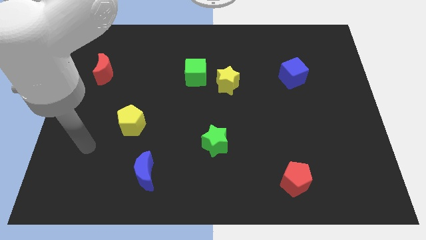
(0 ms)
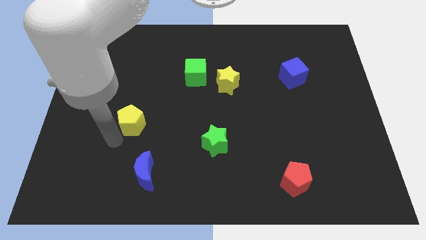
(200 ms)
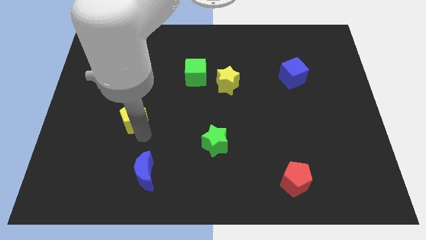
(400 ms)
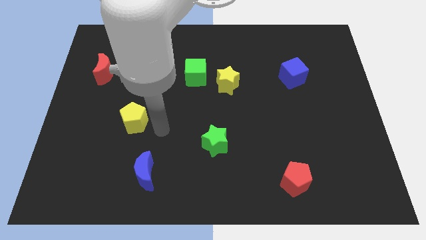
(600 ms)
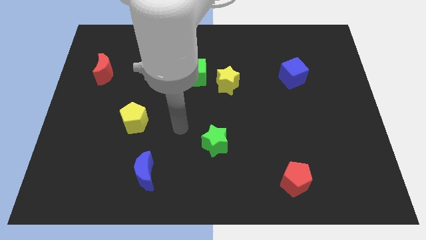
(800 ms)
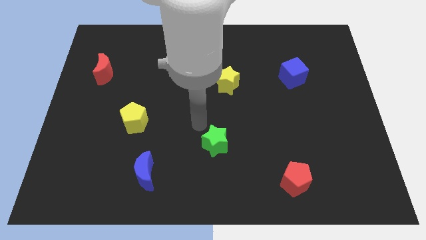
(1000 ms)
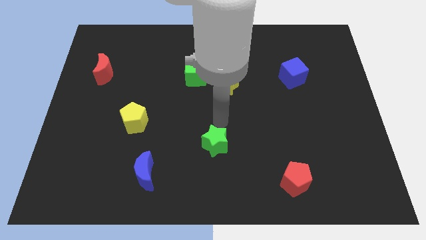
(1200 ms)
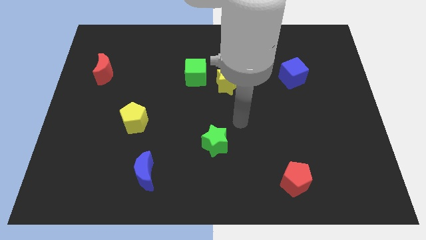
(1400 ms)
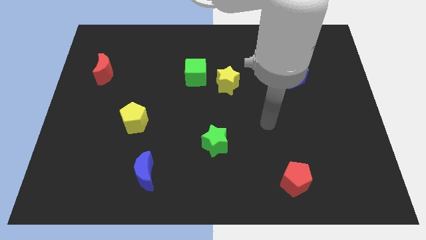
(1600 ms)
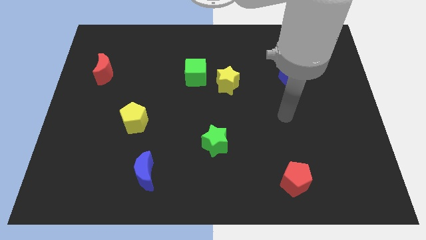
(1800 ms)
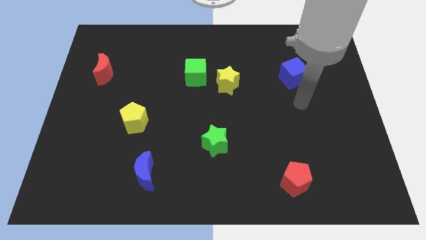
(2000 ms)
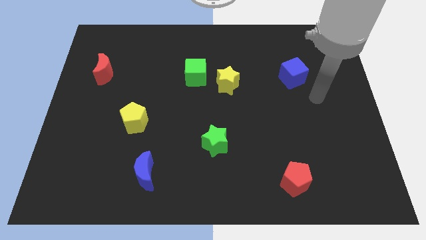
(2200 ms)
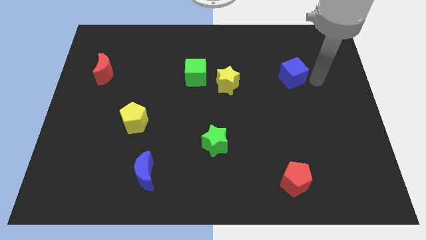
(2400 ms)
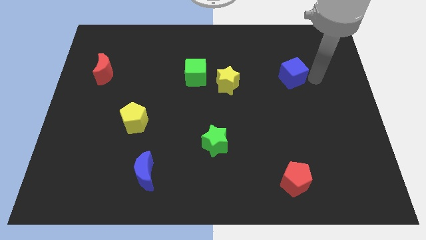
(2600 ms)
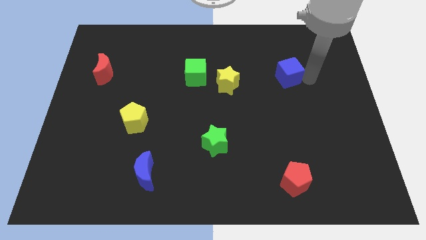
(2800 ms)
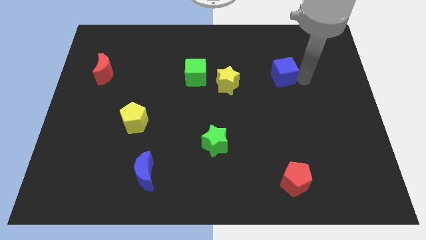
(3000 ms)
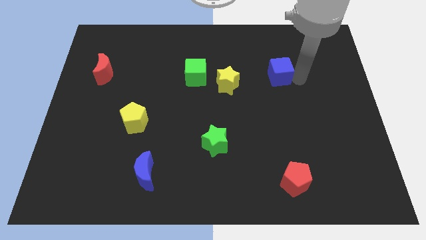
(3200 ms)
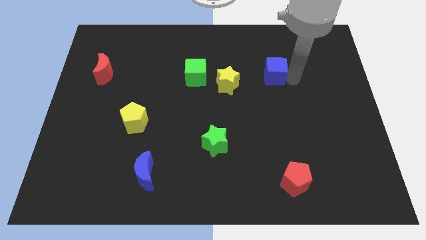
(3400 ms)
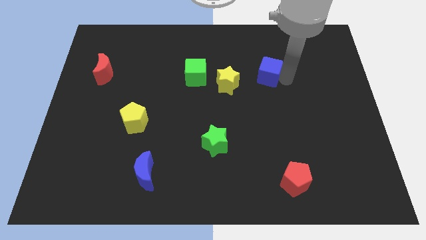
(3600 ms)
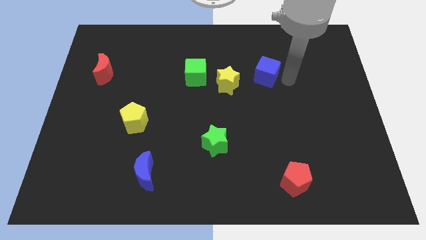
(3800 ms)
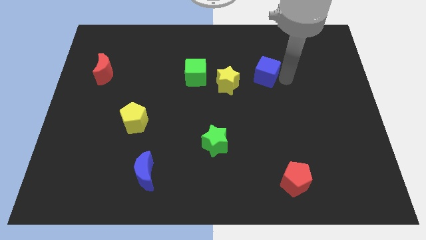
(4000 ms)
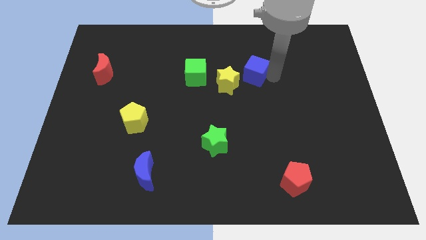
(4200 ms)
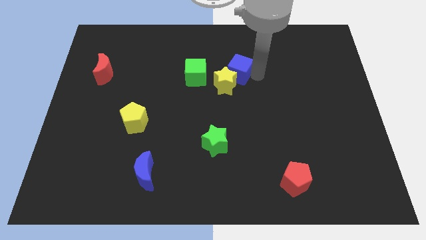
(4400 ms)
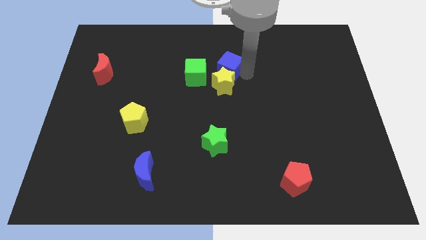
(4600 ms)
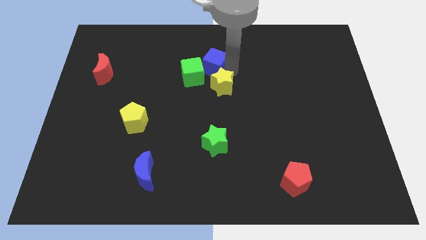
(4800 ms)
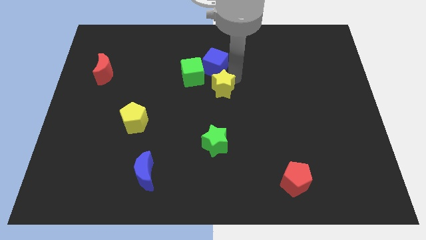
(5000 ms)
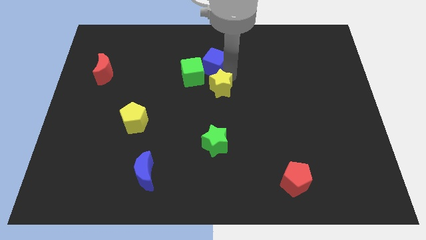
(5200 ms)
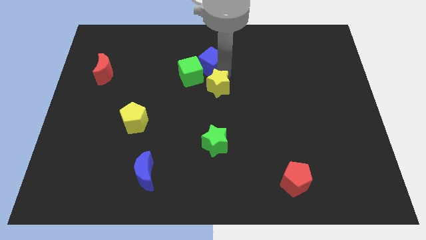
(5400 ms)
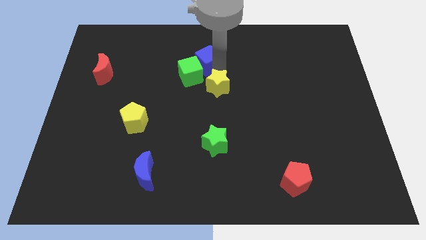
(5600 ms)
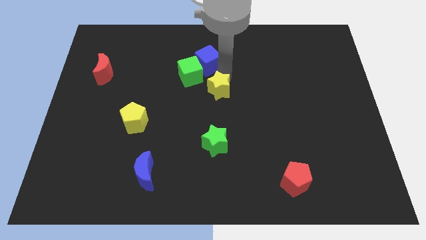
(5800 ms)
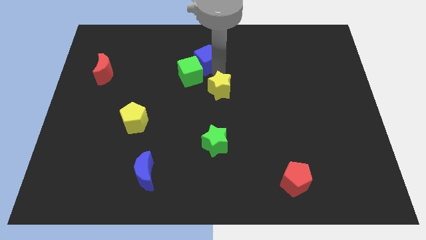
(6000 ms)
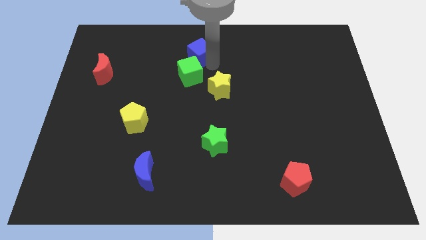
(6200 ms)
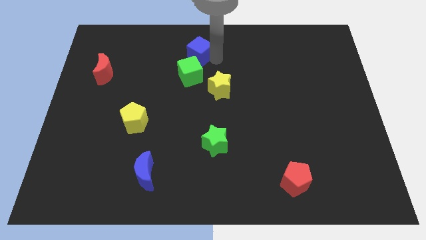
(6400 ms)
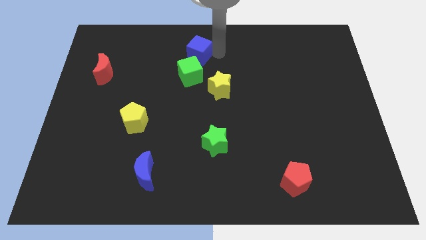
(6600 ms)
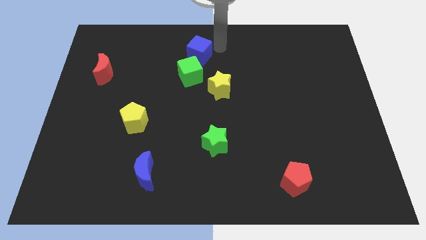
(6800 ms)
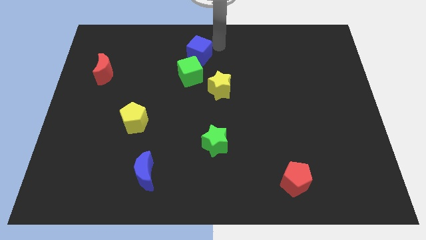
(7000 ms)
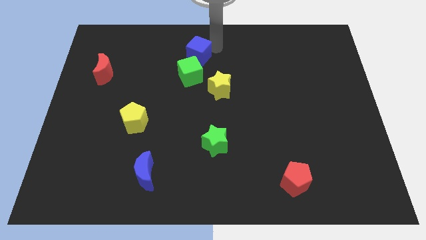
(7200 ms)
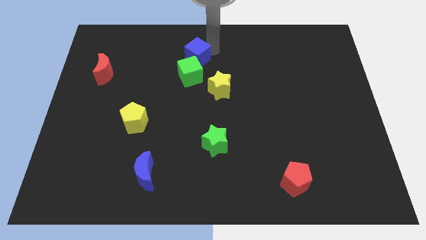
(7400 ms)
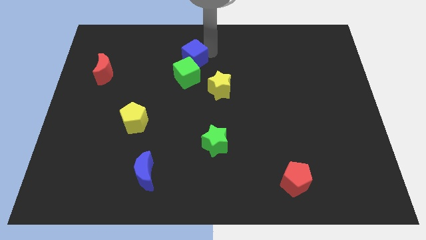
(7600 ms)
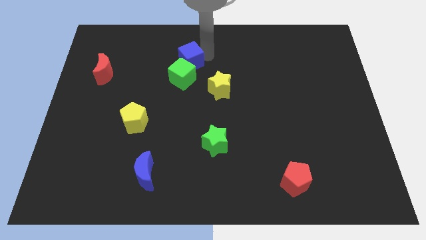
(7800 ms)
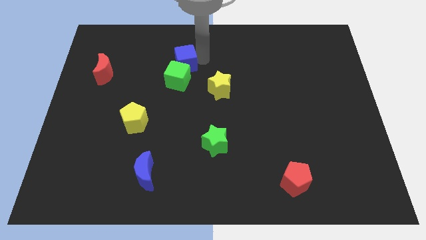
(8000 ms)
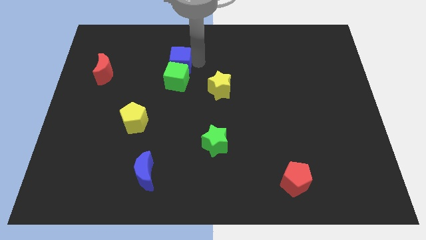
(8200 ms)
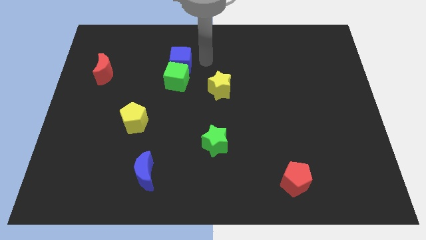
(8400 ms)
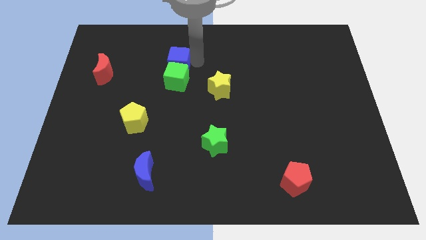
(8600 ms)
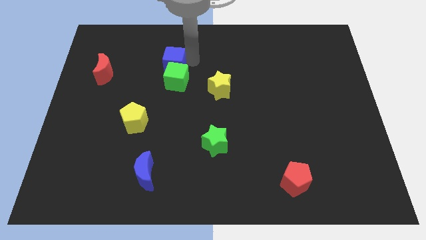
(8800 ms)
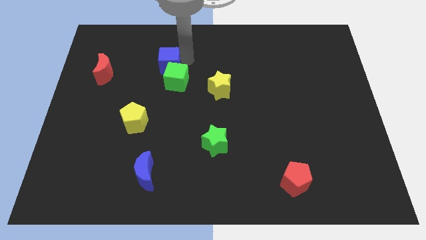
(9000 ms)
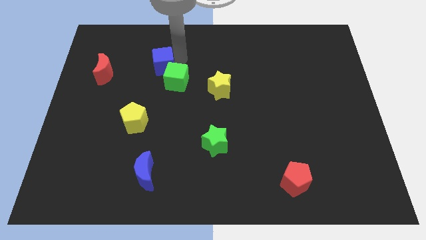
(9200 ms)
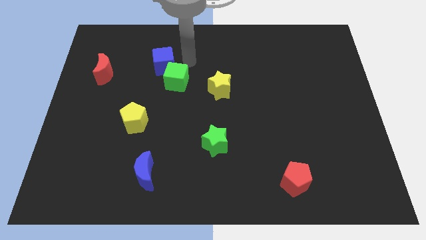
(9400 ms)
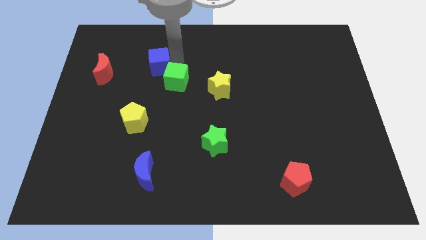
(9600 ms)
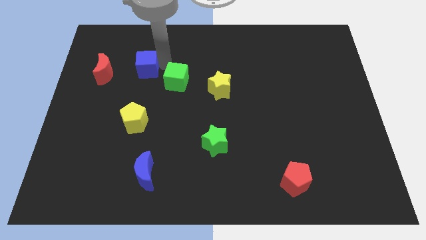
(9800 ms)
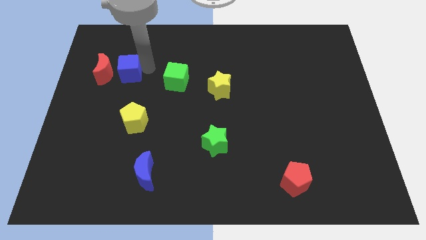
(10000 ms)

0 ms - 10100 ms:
slide the blue cube close to the red moon

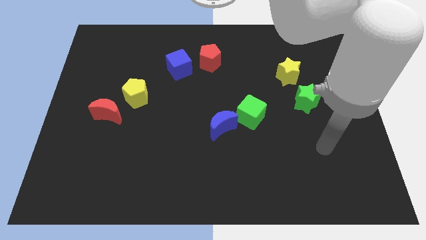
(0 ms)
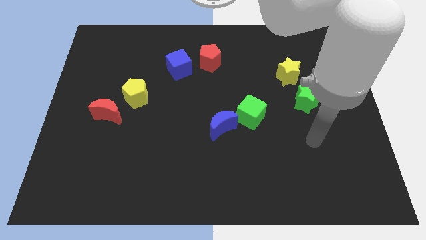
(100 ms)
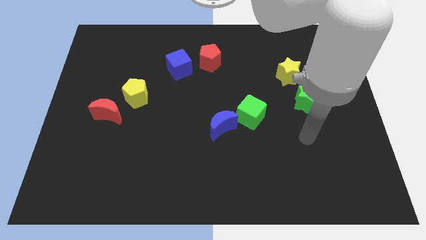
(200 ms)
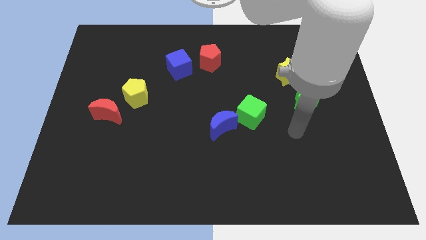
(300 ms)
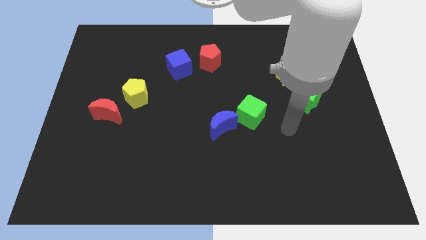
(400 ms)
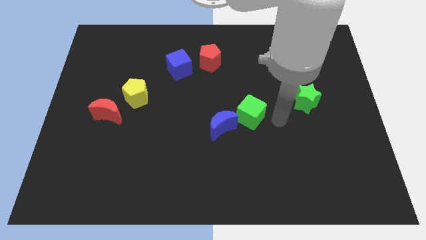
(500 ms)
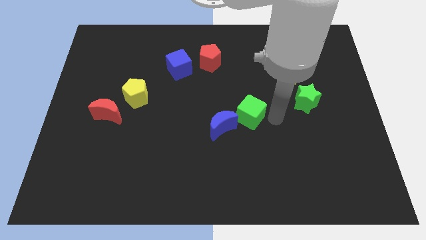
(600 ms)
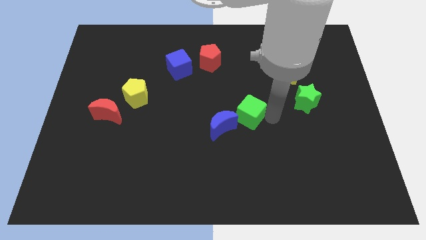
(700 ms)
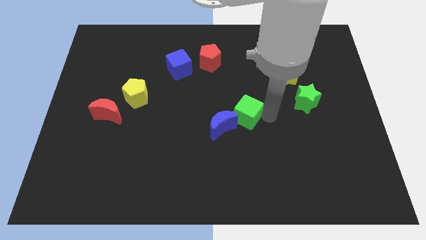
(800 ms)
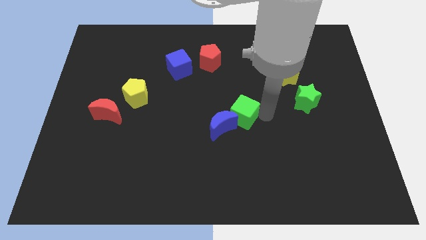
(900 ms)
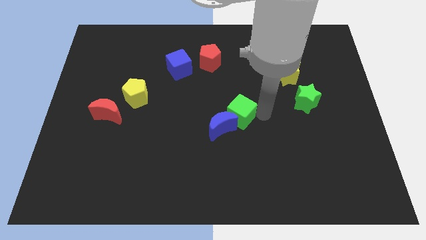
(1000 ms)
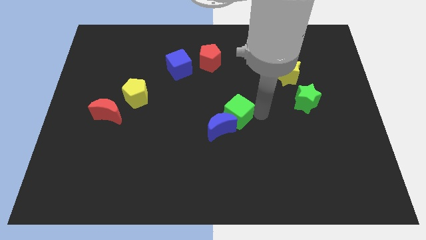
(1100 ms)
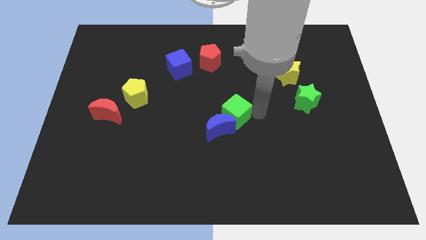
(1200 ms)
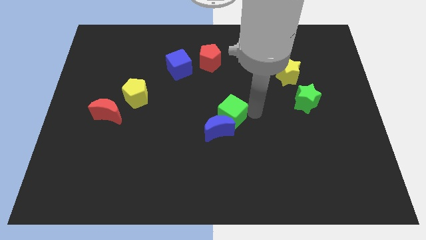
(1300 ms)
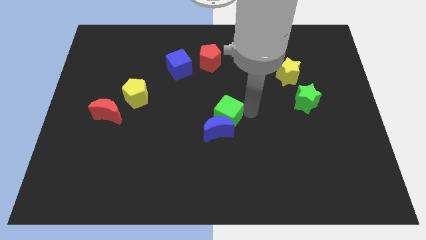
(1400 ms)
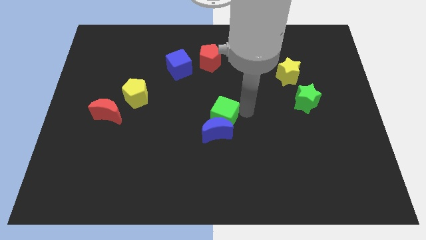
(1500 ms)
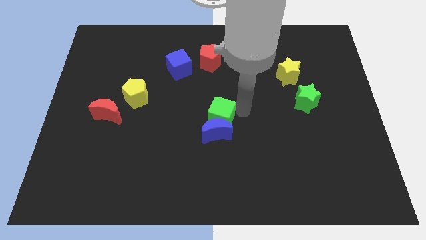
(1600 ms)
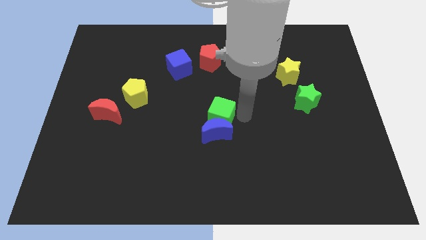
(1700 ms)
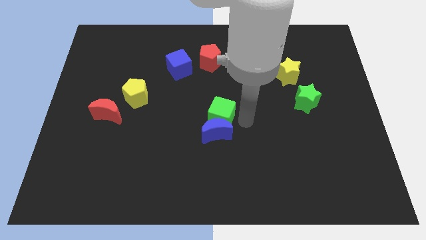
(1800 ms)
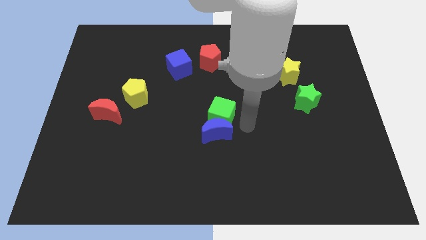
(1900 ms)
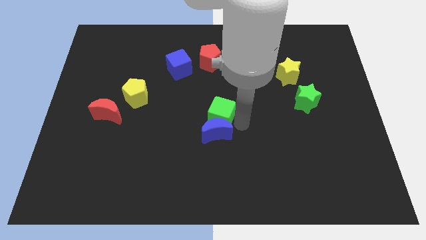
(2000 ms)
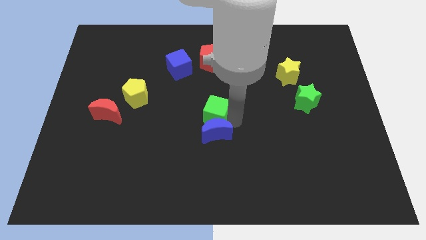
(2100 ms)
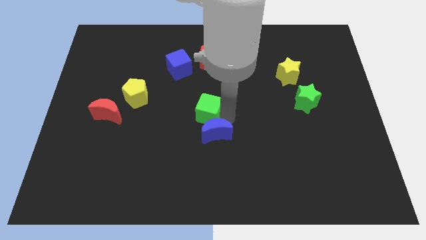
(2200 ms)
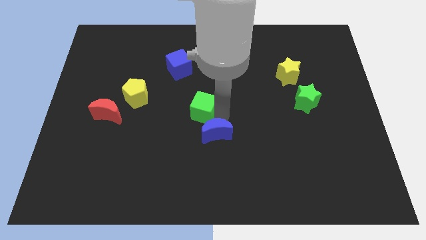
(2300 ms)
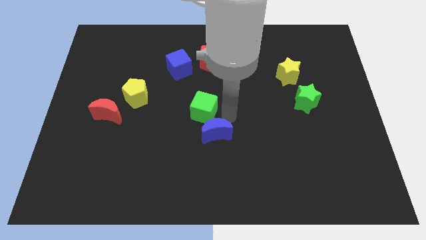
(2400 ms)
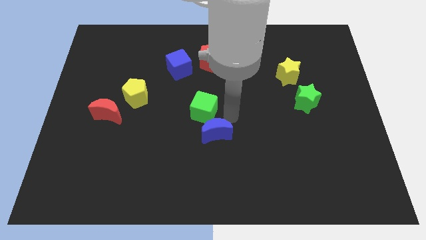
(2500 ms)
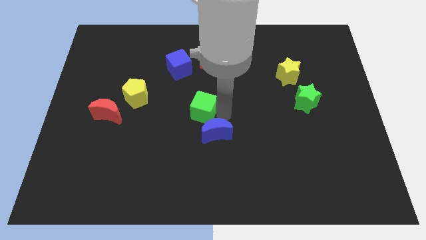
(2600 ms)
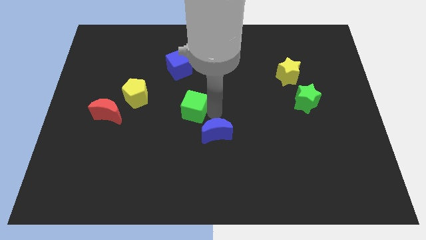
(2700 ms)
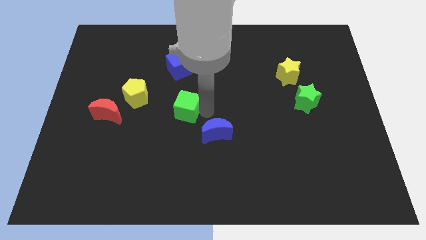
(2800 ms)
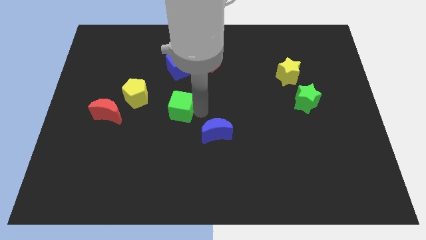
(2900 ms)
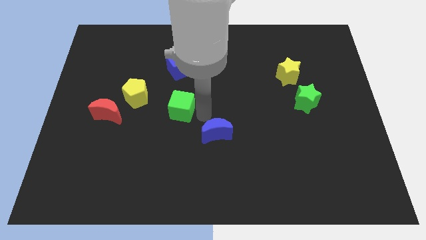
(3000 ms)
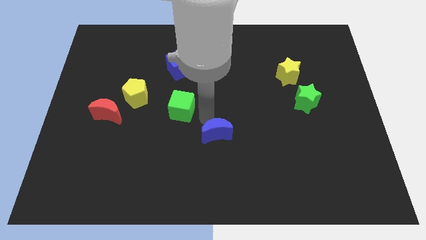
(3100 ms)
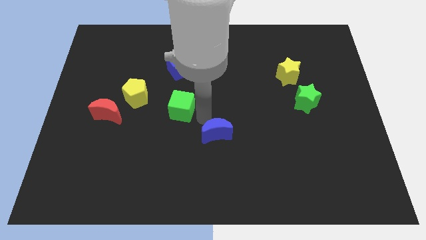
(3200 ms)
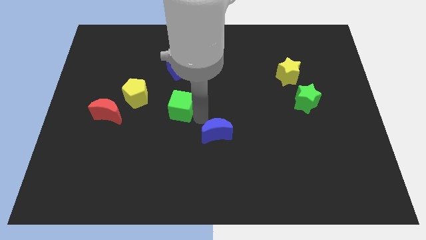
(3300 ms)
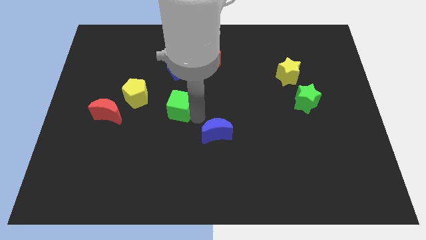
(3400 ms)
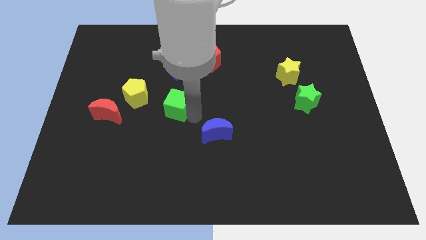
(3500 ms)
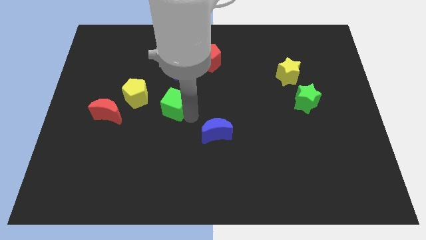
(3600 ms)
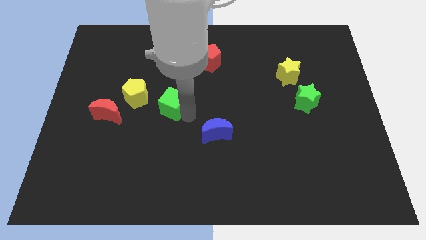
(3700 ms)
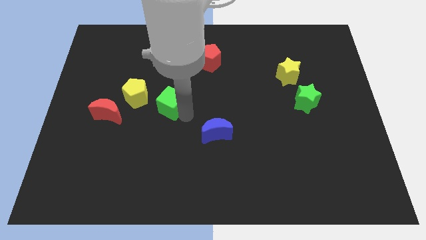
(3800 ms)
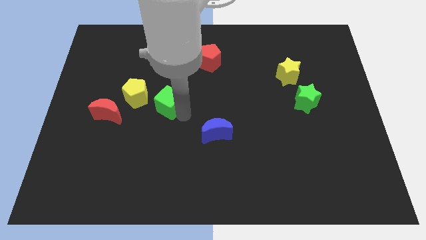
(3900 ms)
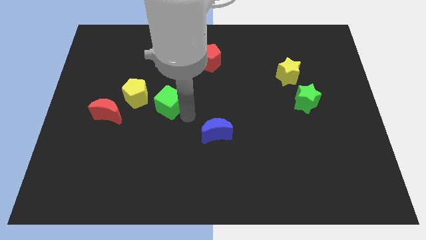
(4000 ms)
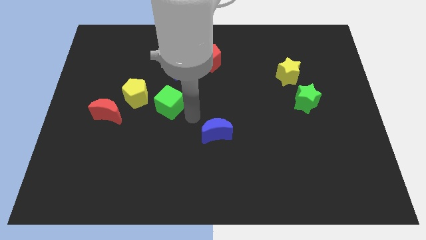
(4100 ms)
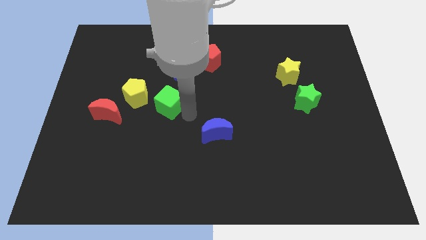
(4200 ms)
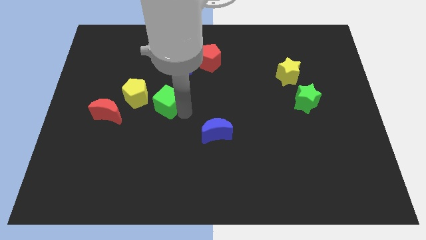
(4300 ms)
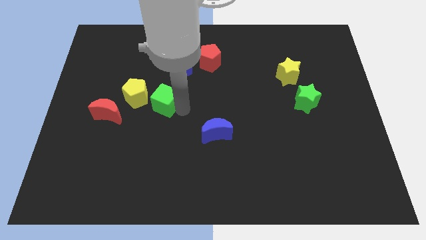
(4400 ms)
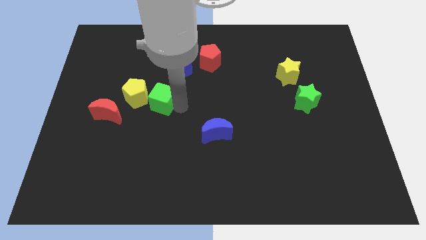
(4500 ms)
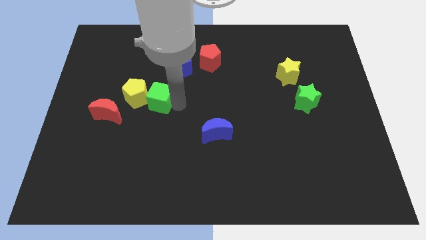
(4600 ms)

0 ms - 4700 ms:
put the green cube next to the yellow pentagon
